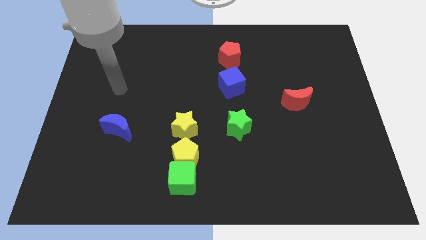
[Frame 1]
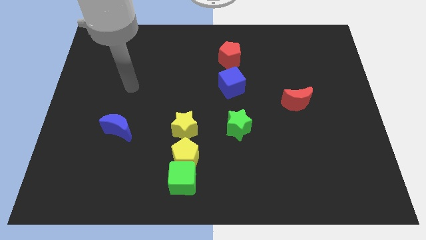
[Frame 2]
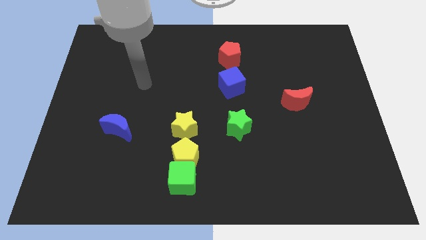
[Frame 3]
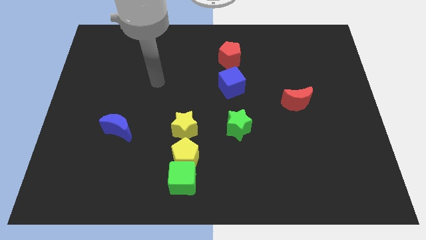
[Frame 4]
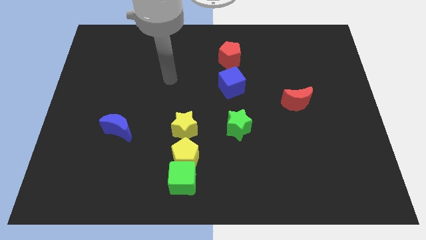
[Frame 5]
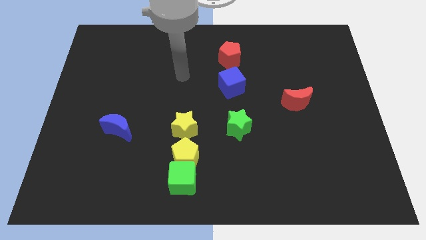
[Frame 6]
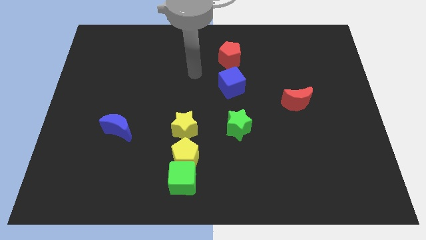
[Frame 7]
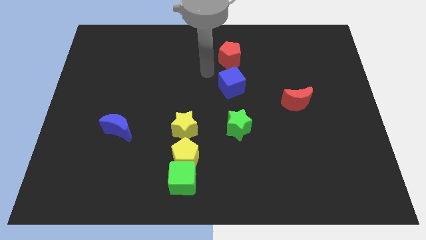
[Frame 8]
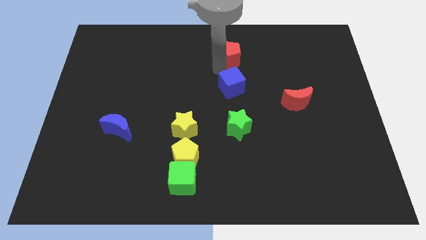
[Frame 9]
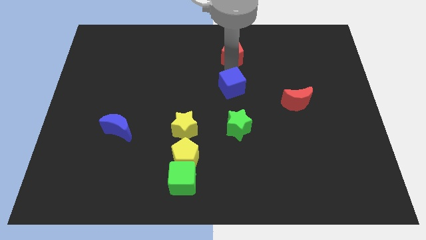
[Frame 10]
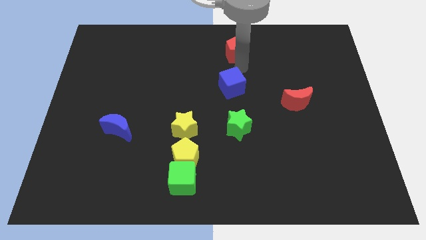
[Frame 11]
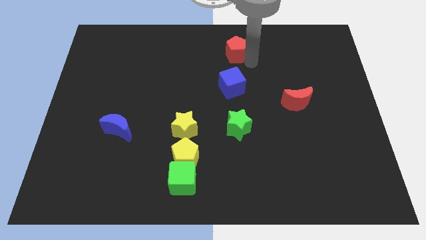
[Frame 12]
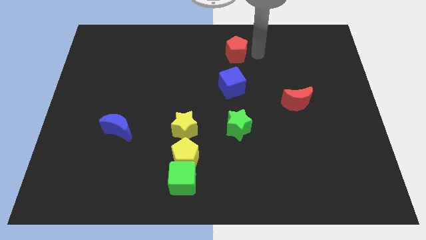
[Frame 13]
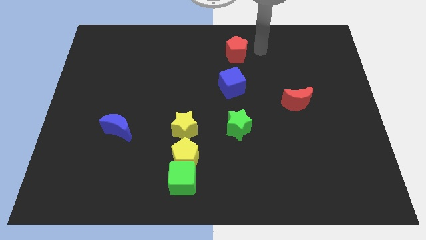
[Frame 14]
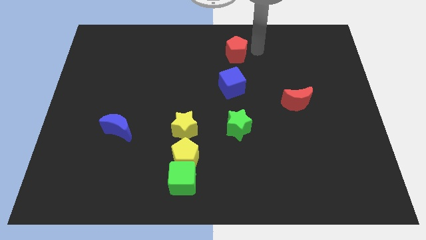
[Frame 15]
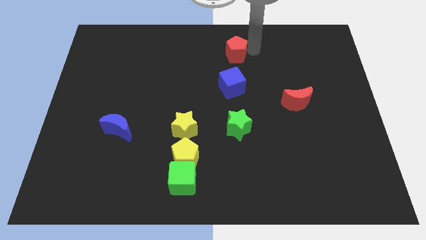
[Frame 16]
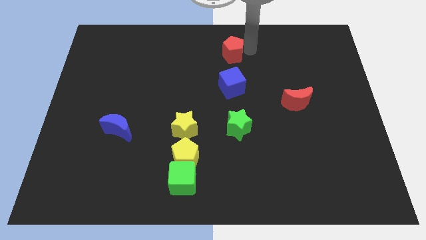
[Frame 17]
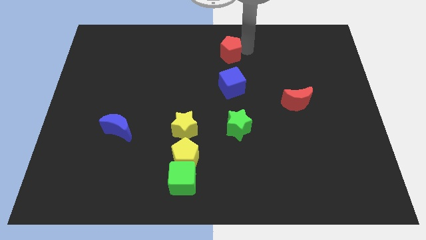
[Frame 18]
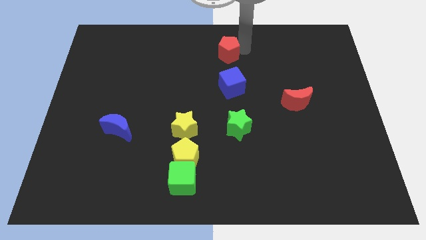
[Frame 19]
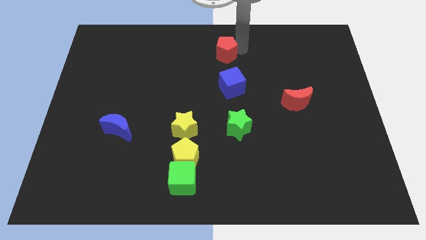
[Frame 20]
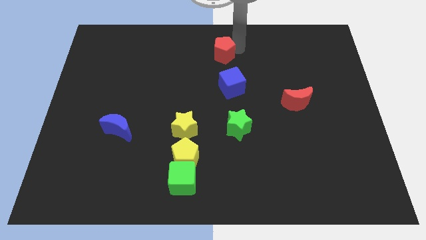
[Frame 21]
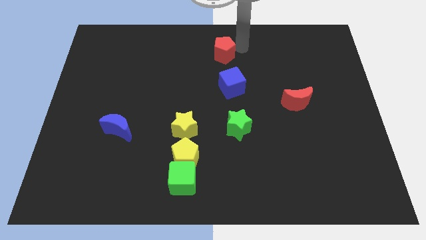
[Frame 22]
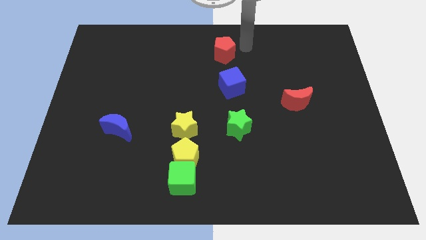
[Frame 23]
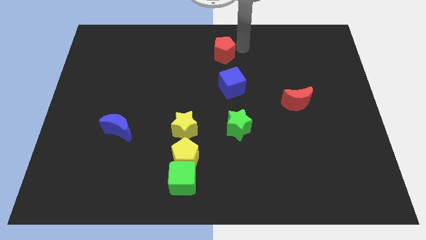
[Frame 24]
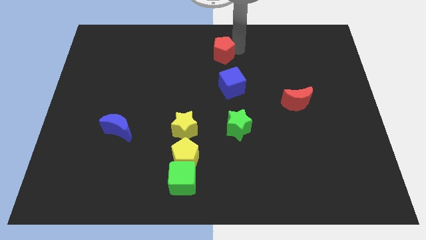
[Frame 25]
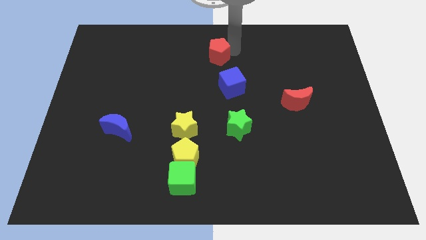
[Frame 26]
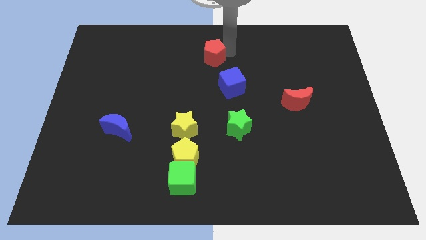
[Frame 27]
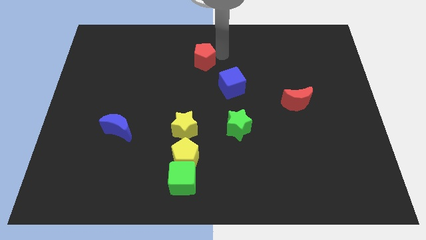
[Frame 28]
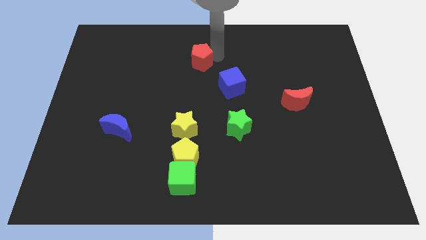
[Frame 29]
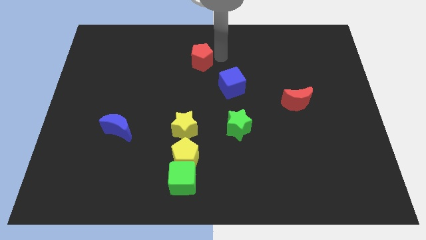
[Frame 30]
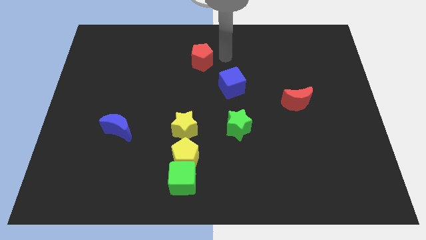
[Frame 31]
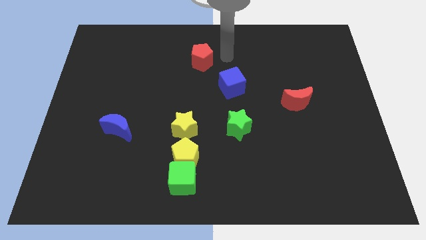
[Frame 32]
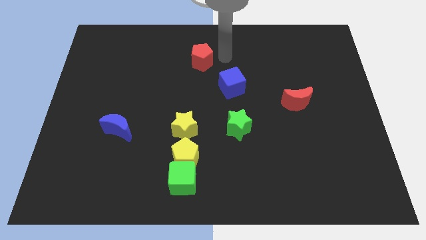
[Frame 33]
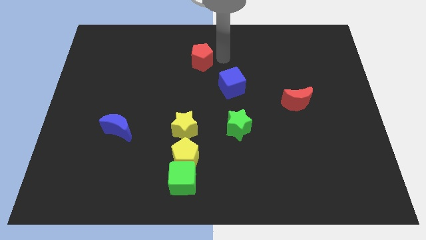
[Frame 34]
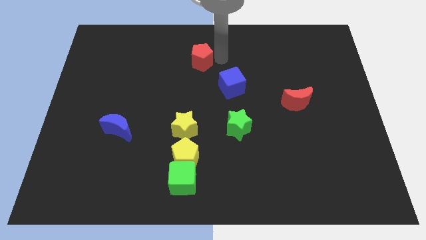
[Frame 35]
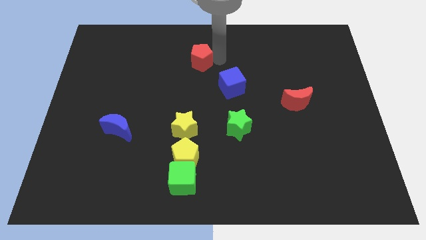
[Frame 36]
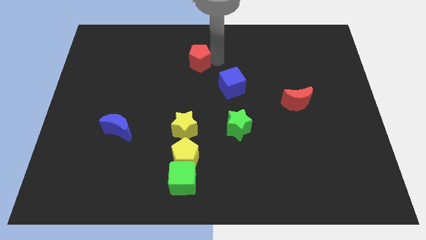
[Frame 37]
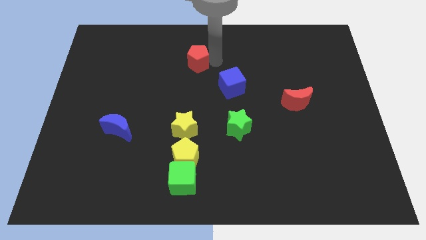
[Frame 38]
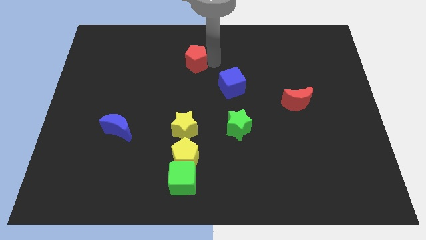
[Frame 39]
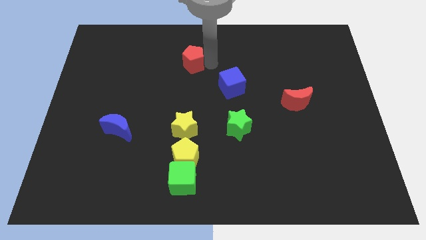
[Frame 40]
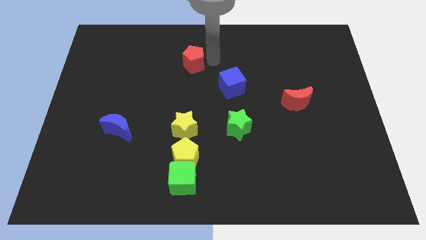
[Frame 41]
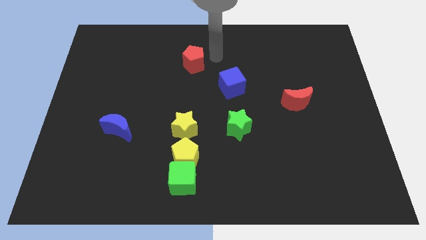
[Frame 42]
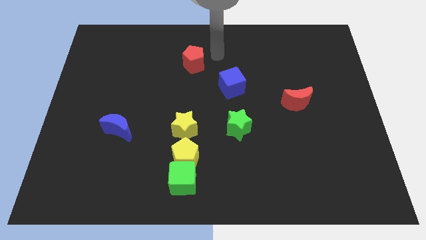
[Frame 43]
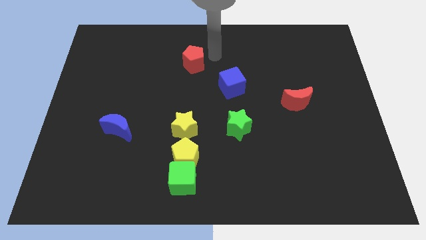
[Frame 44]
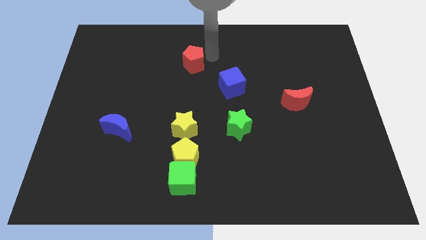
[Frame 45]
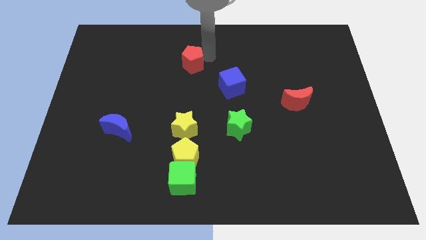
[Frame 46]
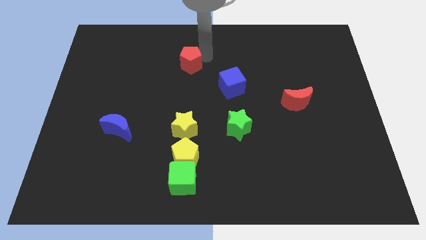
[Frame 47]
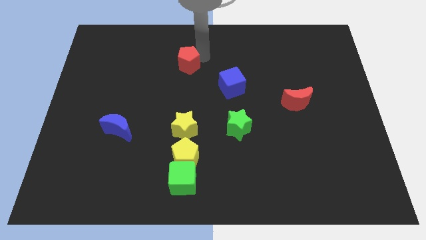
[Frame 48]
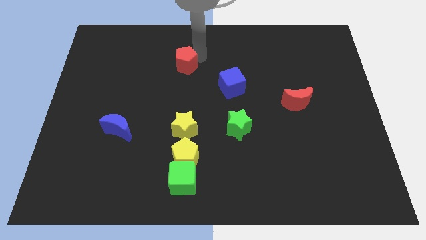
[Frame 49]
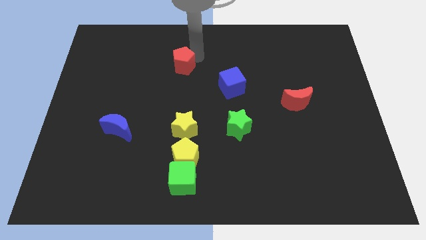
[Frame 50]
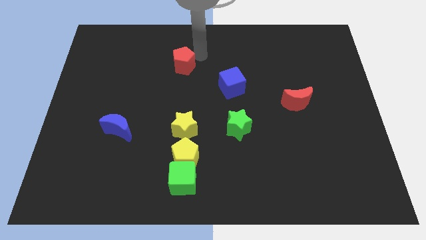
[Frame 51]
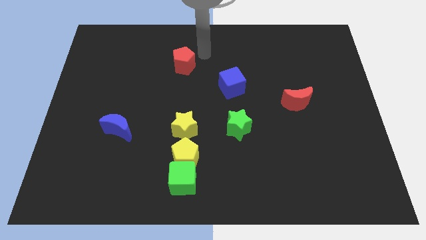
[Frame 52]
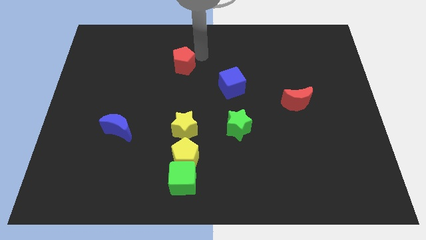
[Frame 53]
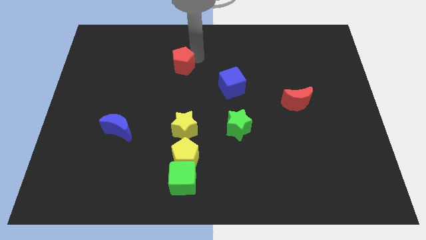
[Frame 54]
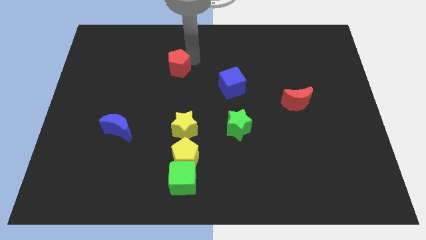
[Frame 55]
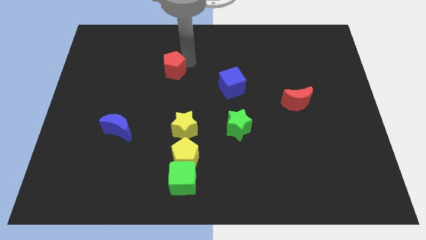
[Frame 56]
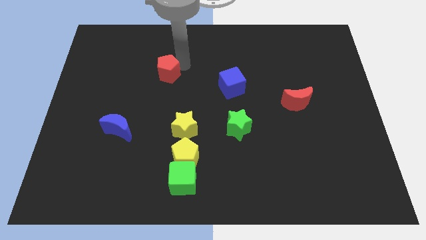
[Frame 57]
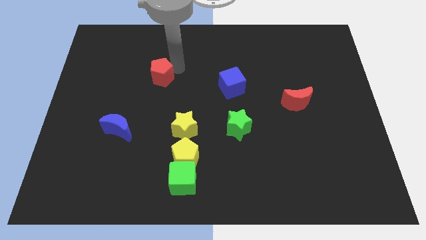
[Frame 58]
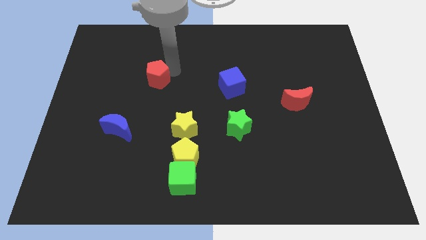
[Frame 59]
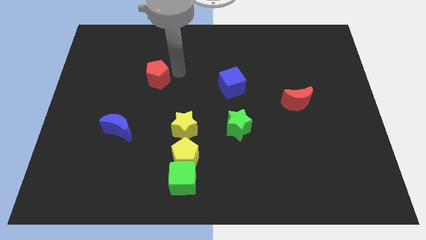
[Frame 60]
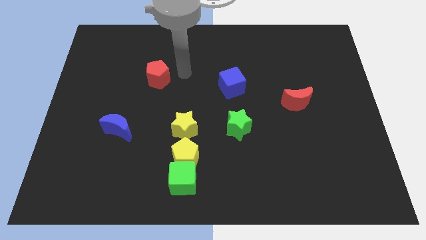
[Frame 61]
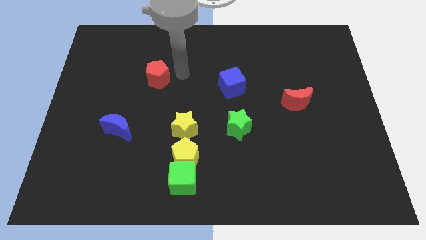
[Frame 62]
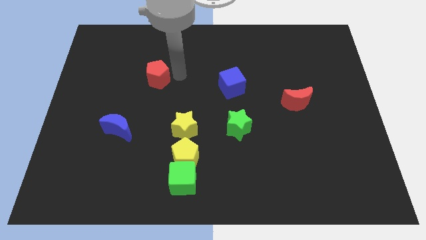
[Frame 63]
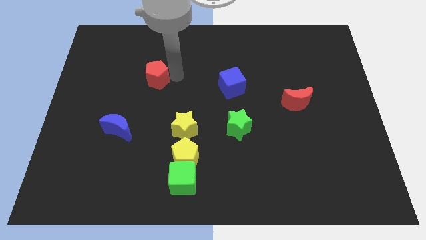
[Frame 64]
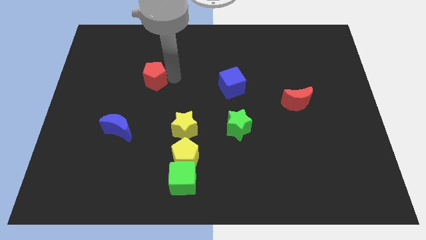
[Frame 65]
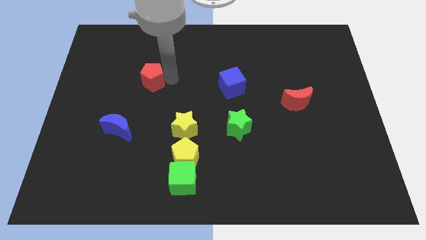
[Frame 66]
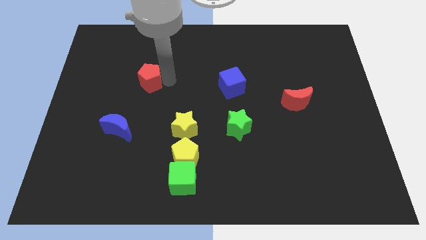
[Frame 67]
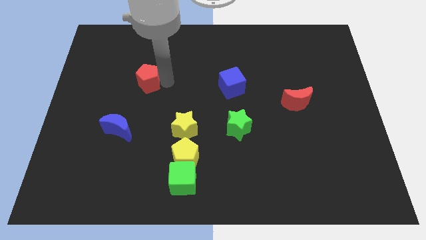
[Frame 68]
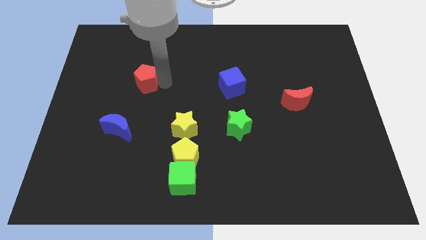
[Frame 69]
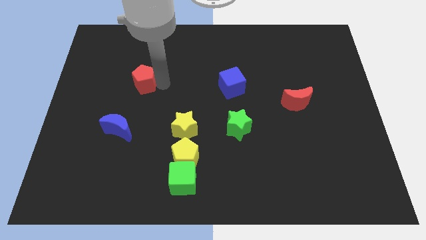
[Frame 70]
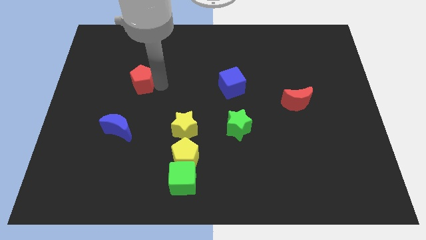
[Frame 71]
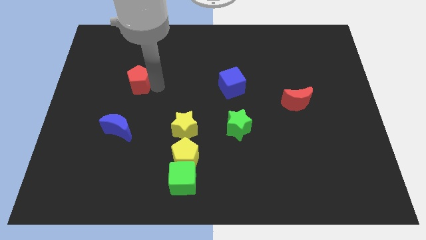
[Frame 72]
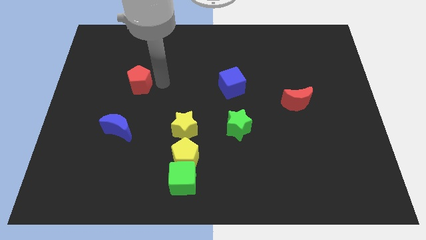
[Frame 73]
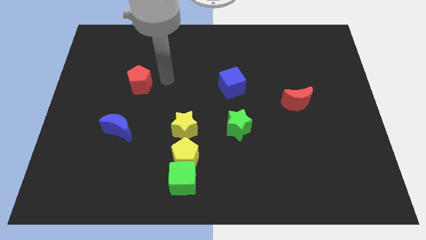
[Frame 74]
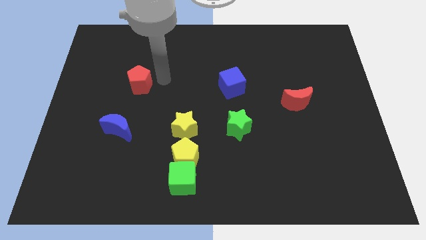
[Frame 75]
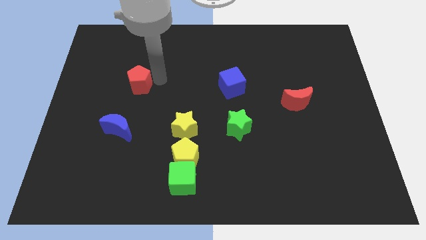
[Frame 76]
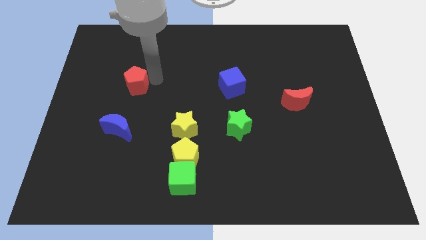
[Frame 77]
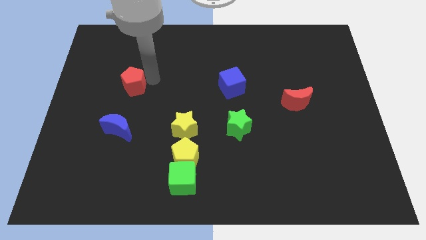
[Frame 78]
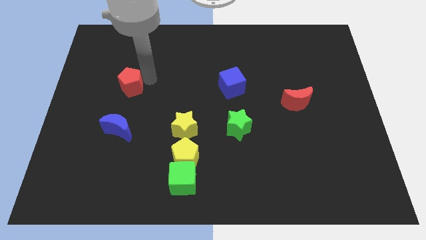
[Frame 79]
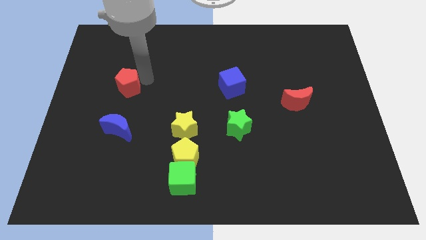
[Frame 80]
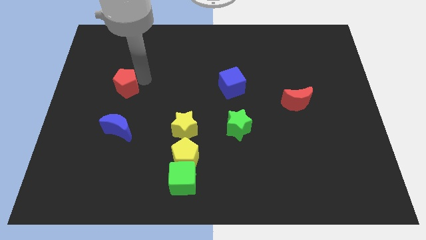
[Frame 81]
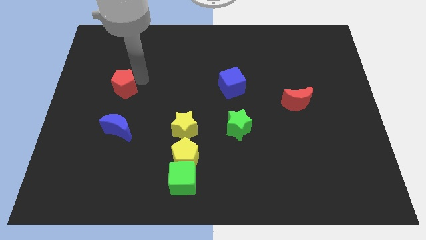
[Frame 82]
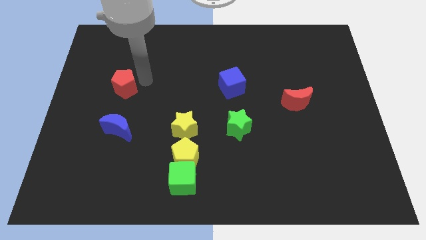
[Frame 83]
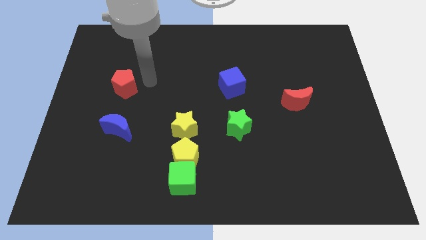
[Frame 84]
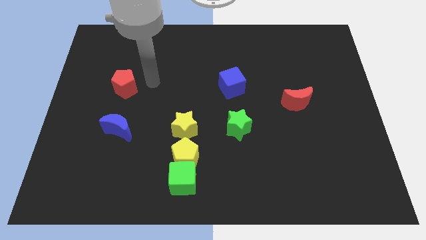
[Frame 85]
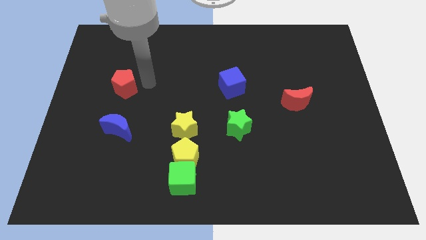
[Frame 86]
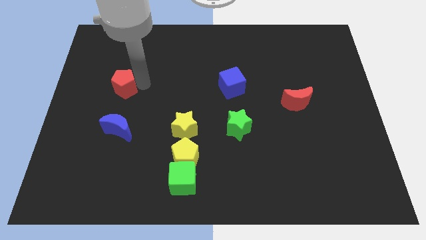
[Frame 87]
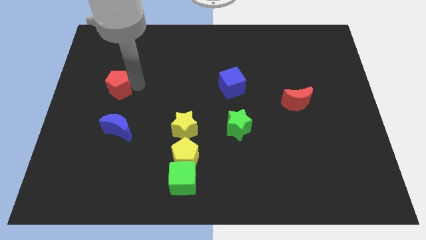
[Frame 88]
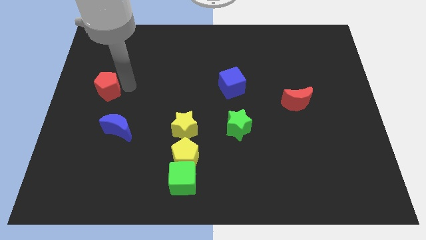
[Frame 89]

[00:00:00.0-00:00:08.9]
slide the red pentagon to the left side
